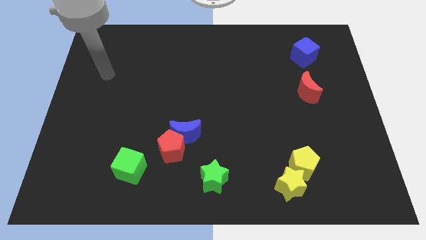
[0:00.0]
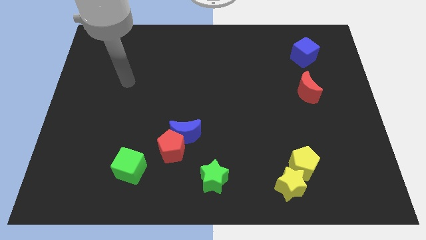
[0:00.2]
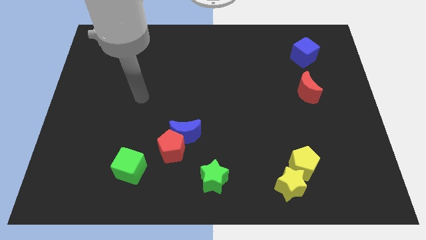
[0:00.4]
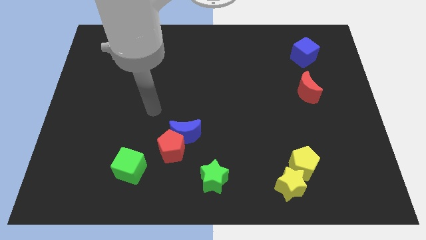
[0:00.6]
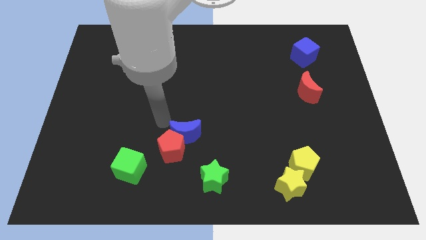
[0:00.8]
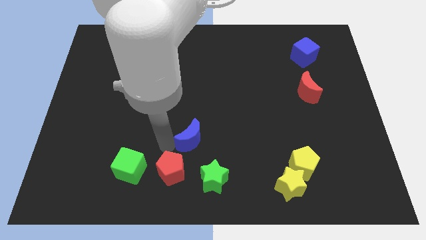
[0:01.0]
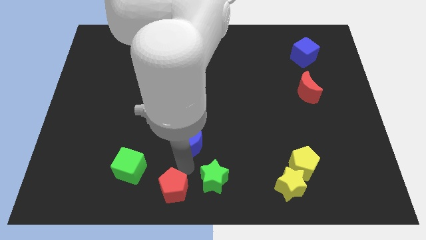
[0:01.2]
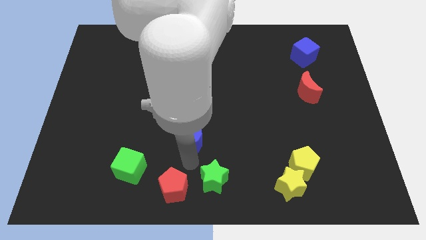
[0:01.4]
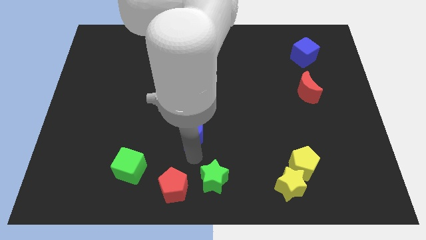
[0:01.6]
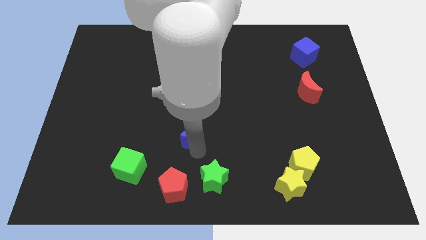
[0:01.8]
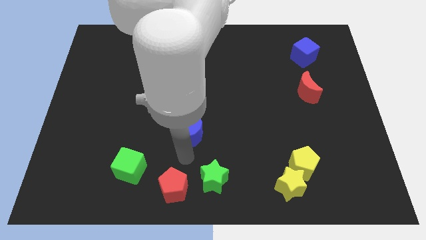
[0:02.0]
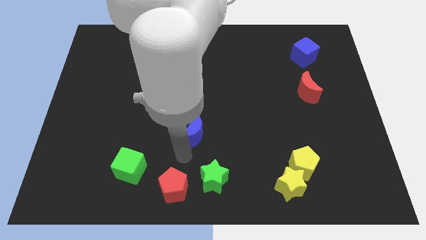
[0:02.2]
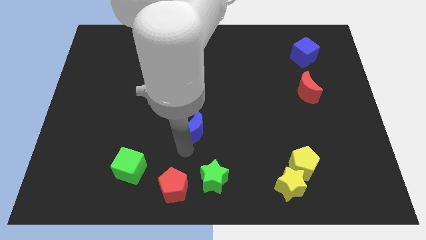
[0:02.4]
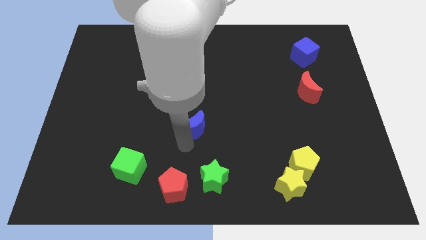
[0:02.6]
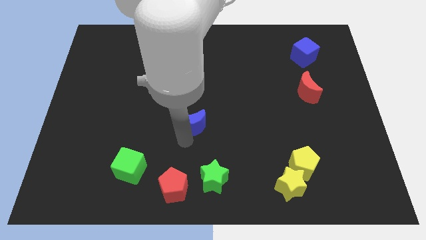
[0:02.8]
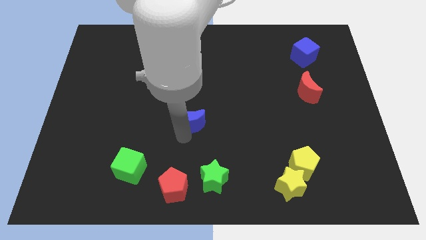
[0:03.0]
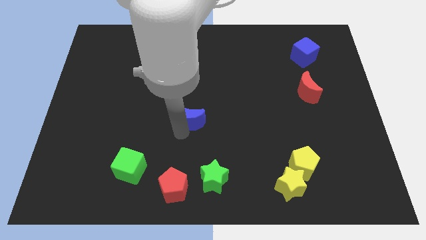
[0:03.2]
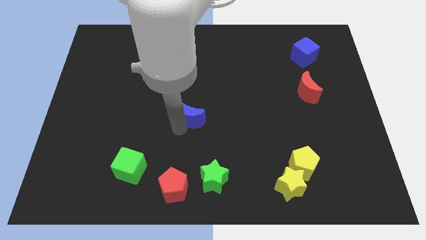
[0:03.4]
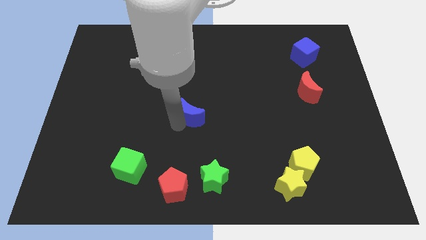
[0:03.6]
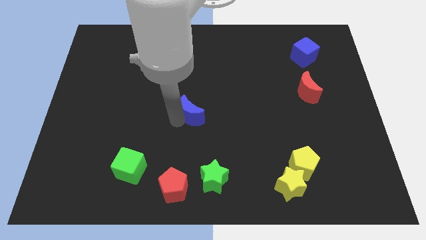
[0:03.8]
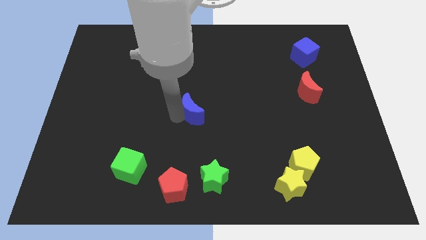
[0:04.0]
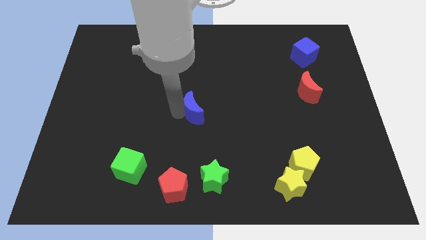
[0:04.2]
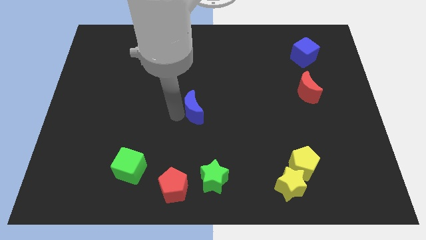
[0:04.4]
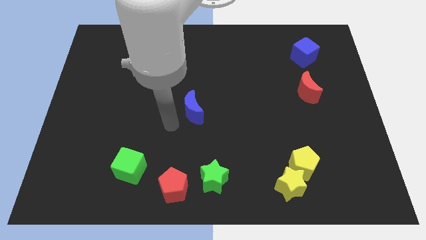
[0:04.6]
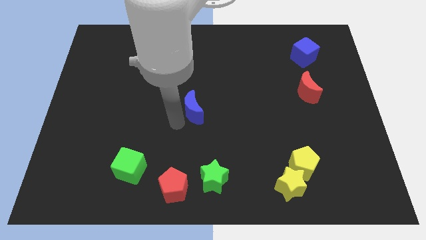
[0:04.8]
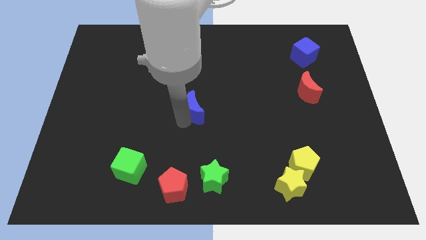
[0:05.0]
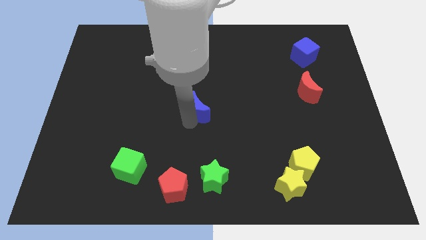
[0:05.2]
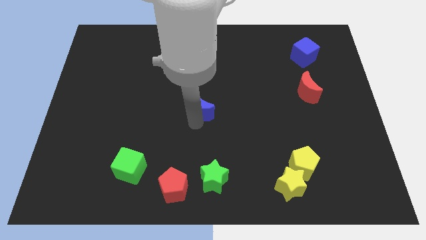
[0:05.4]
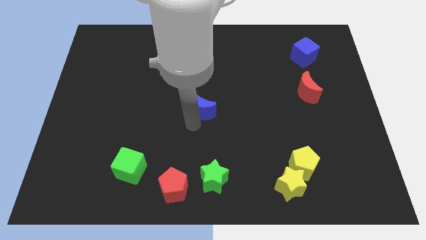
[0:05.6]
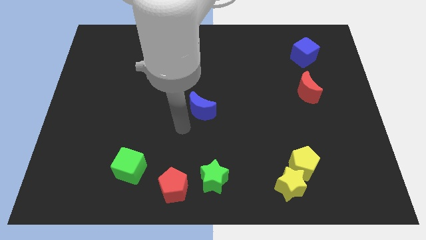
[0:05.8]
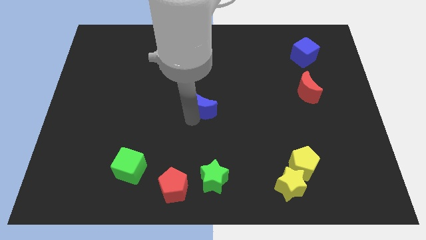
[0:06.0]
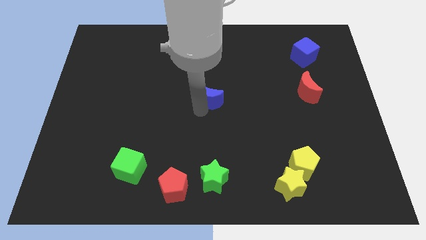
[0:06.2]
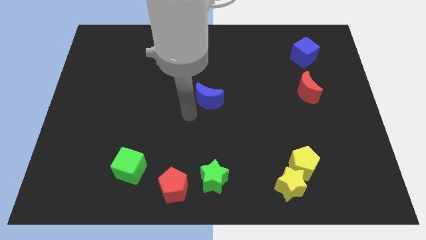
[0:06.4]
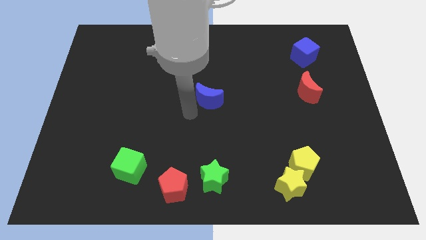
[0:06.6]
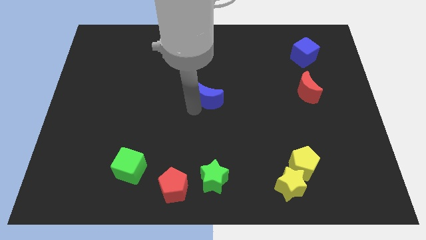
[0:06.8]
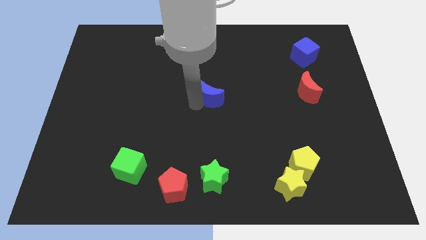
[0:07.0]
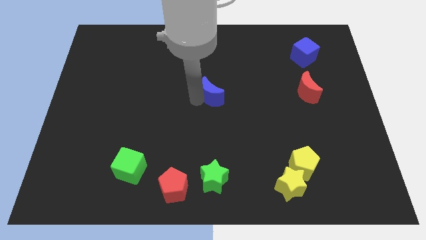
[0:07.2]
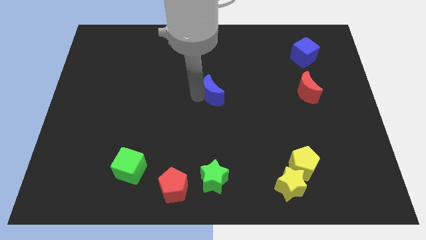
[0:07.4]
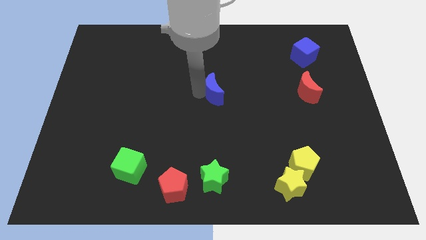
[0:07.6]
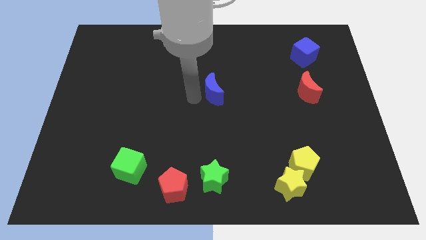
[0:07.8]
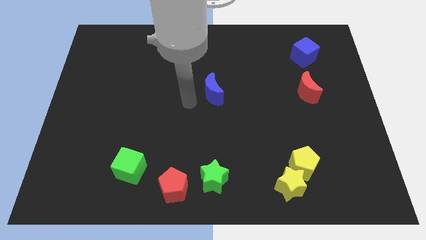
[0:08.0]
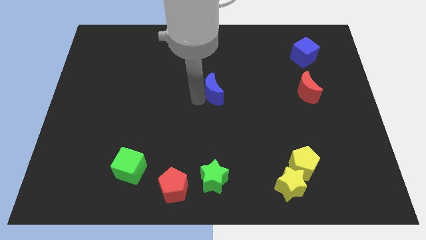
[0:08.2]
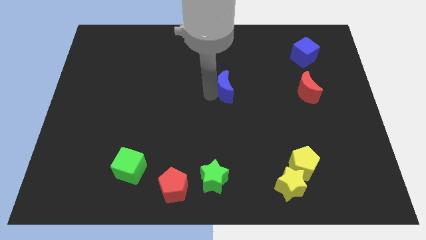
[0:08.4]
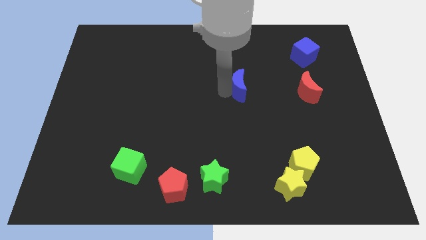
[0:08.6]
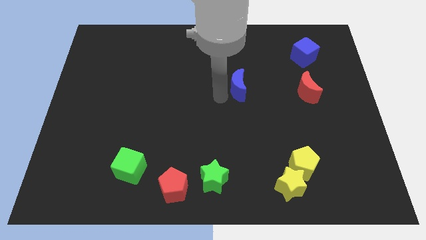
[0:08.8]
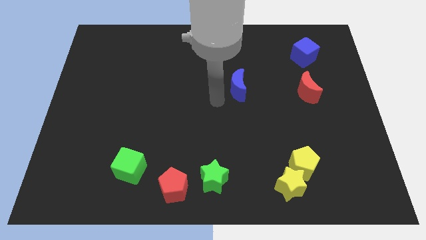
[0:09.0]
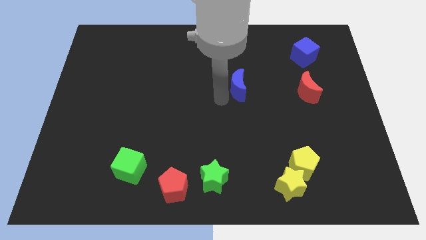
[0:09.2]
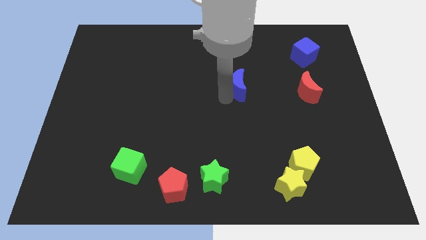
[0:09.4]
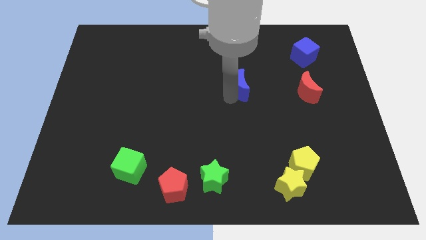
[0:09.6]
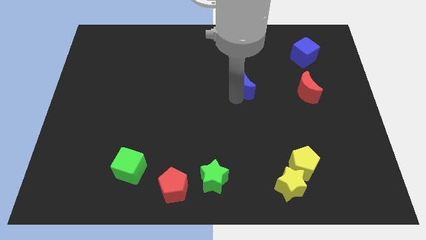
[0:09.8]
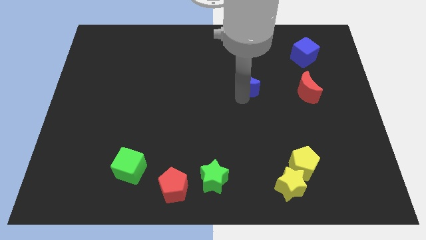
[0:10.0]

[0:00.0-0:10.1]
push the blue moon diagonally up and right

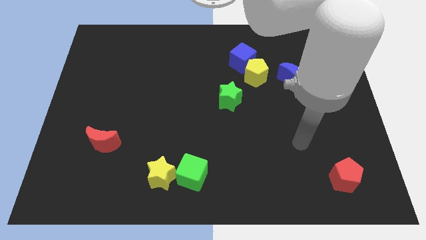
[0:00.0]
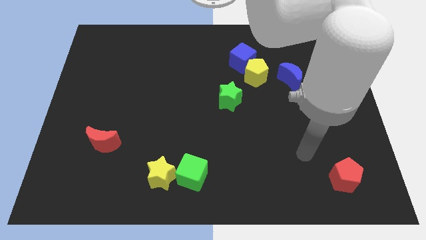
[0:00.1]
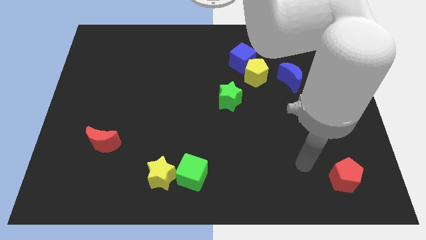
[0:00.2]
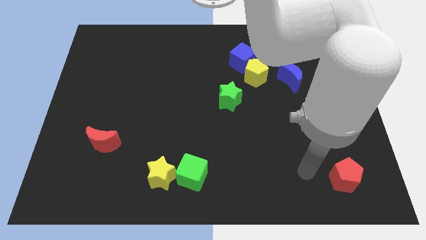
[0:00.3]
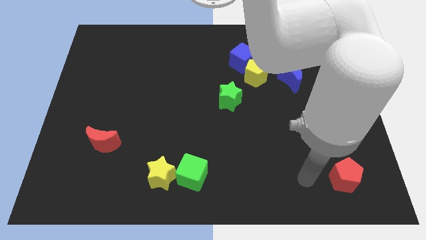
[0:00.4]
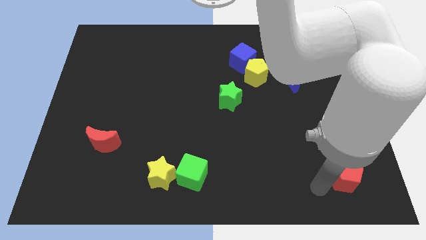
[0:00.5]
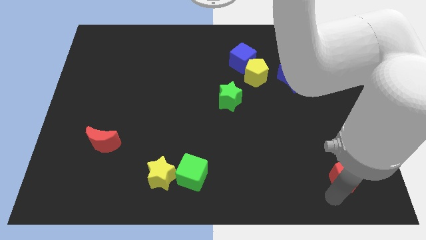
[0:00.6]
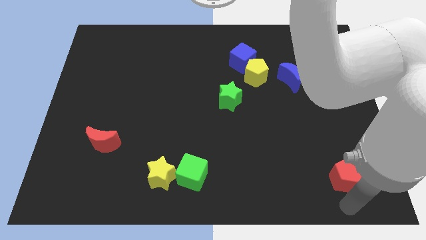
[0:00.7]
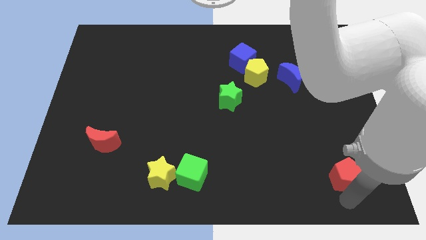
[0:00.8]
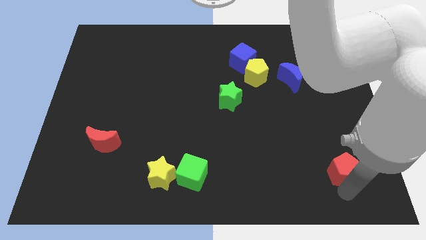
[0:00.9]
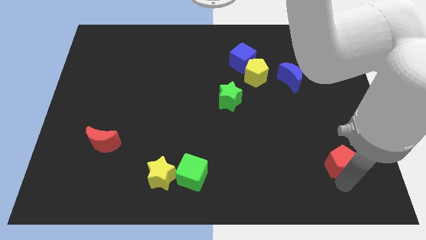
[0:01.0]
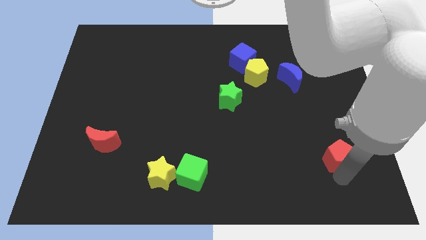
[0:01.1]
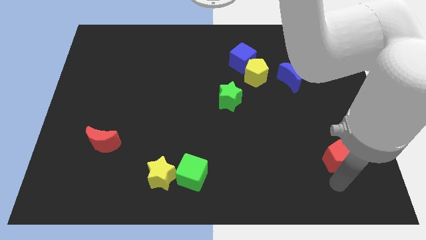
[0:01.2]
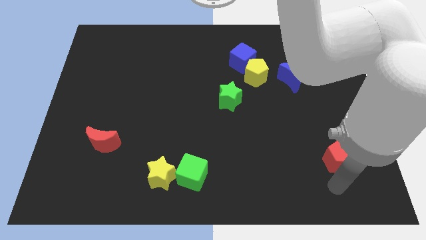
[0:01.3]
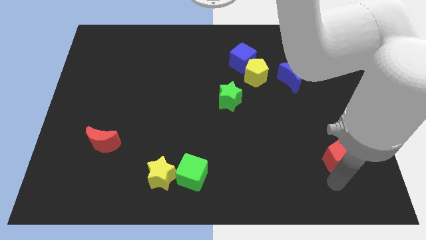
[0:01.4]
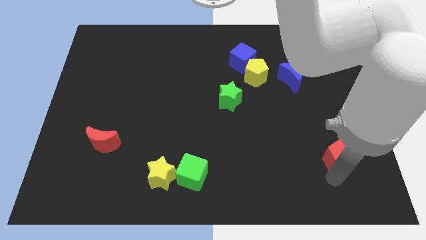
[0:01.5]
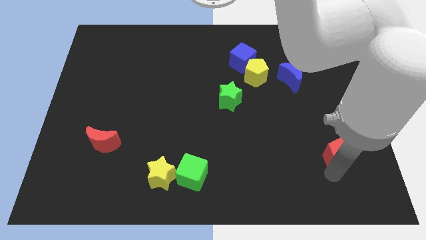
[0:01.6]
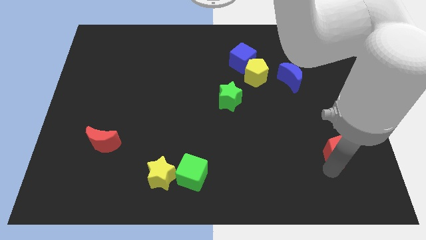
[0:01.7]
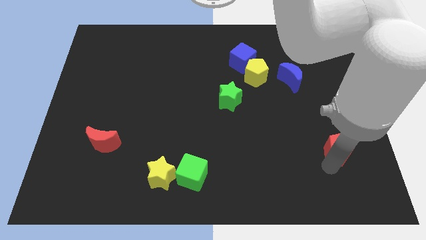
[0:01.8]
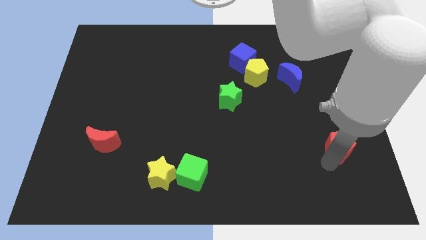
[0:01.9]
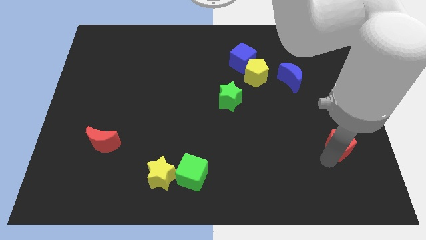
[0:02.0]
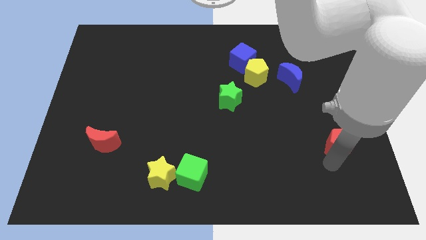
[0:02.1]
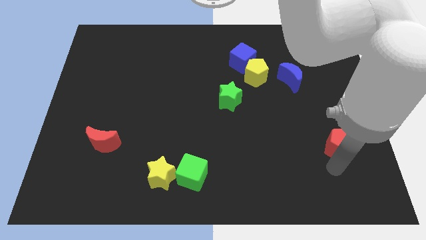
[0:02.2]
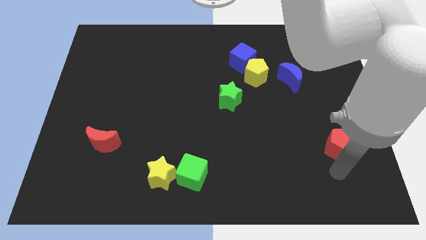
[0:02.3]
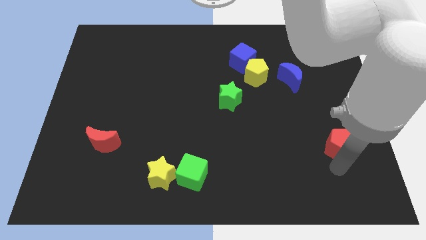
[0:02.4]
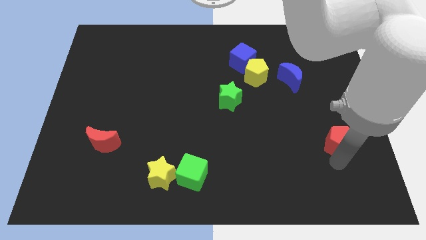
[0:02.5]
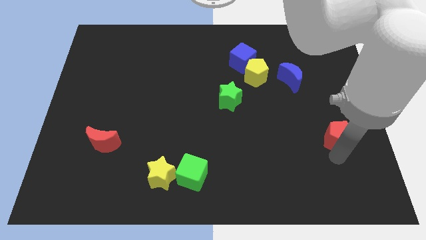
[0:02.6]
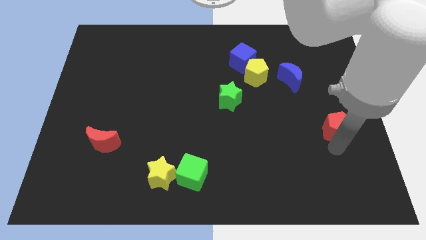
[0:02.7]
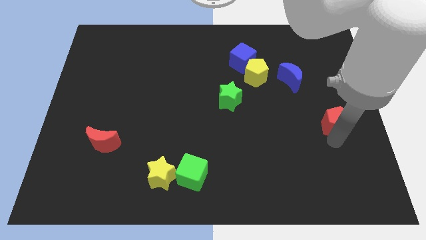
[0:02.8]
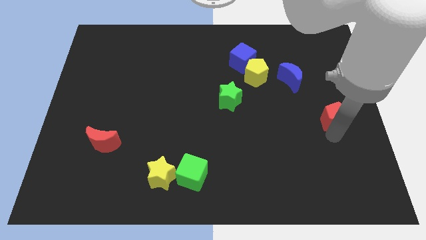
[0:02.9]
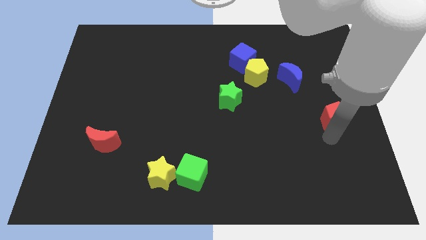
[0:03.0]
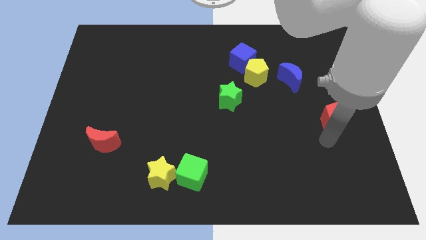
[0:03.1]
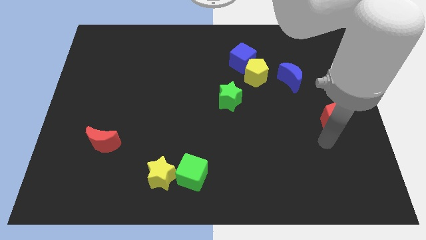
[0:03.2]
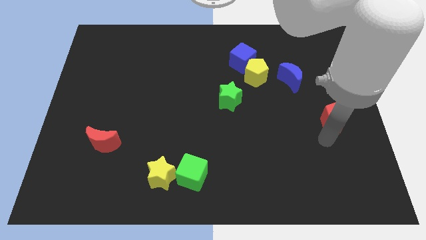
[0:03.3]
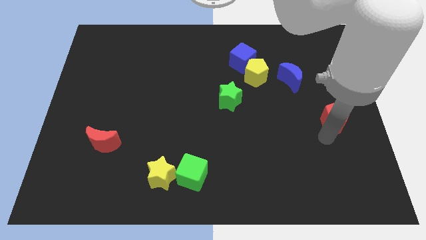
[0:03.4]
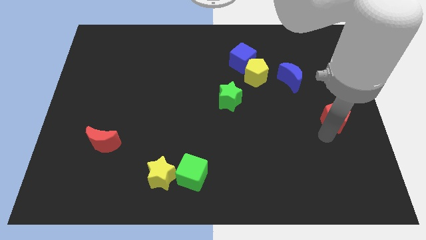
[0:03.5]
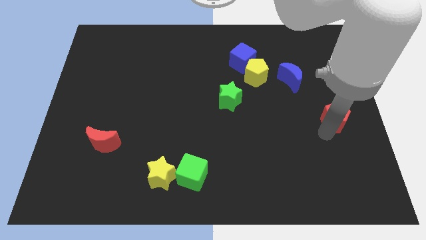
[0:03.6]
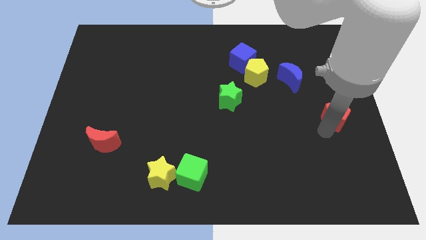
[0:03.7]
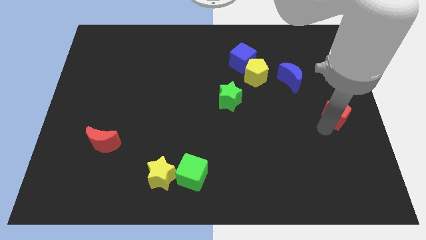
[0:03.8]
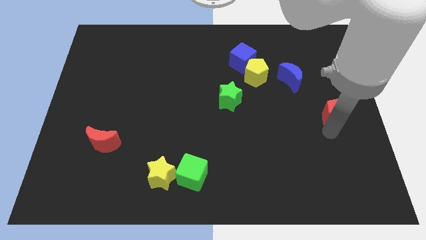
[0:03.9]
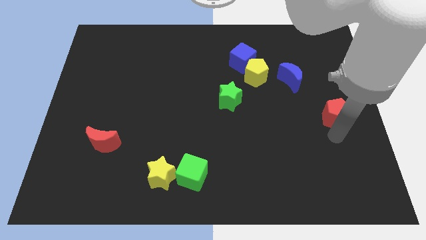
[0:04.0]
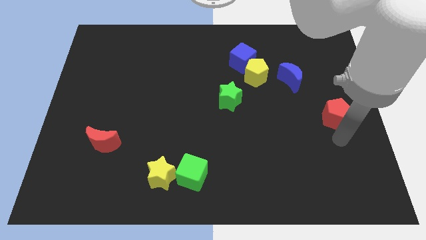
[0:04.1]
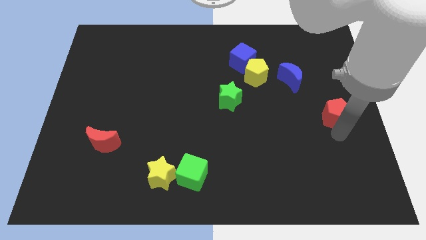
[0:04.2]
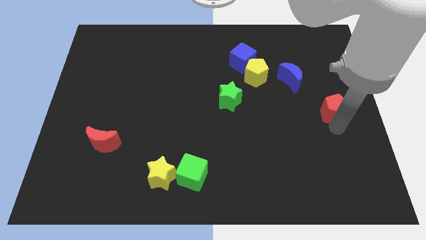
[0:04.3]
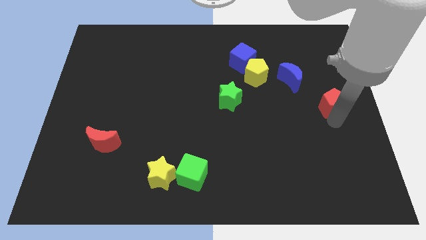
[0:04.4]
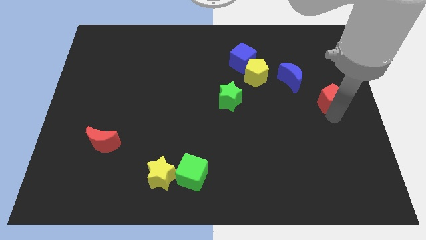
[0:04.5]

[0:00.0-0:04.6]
slide the red pentagon upwards
